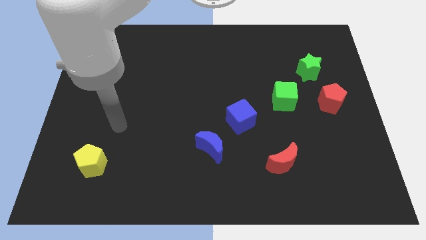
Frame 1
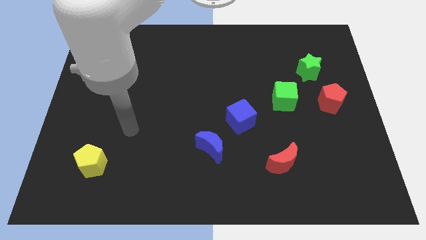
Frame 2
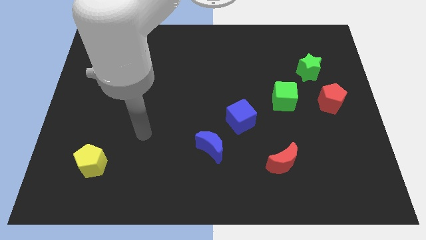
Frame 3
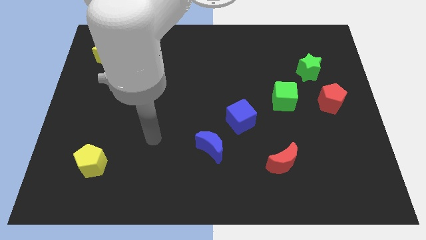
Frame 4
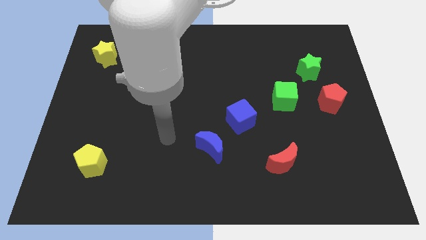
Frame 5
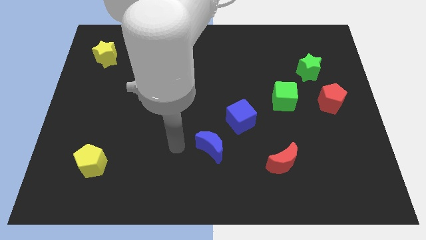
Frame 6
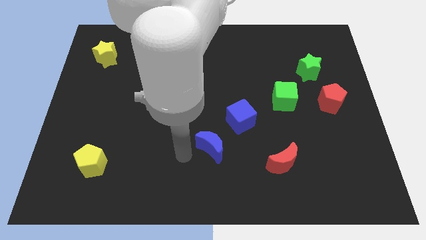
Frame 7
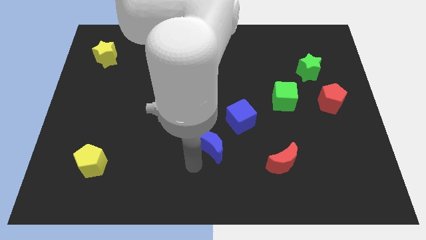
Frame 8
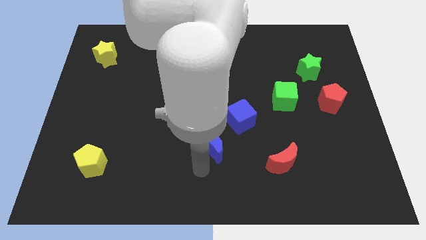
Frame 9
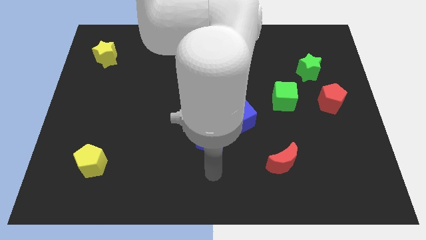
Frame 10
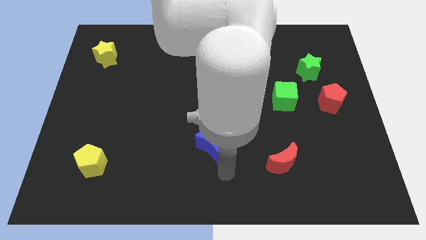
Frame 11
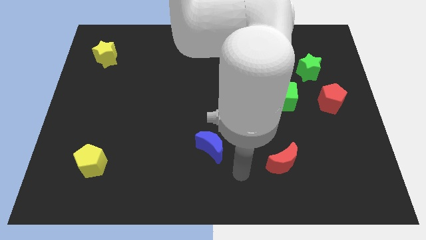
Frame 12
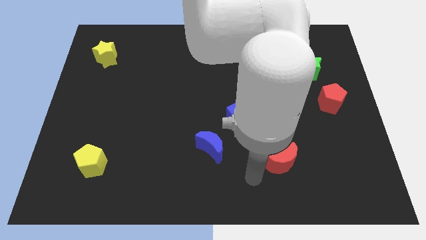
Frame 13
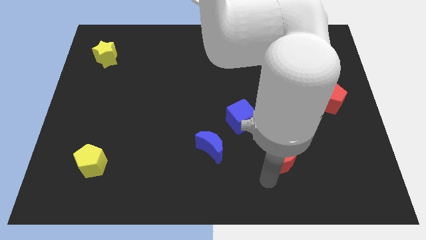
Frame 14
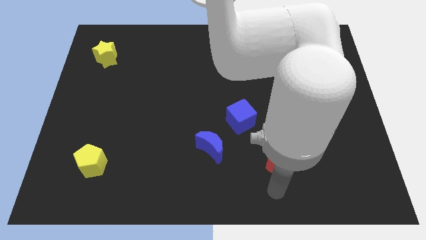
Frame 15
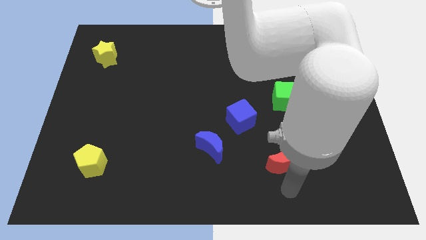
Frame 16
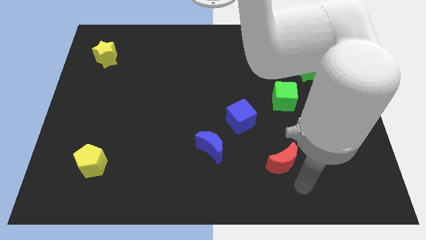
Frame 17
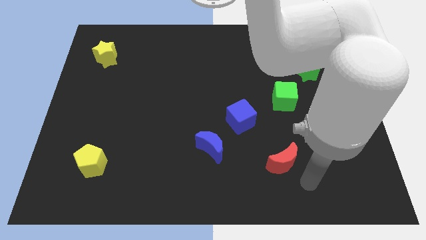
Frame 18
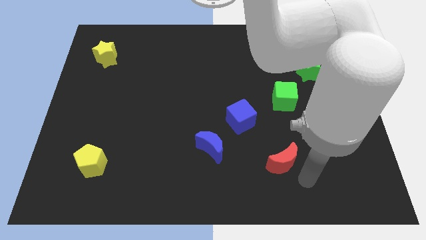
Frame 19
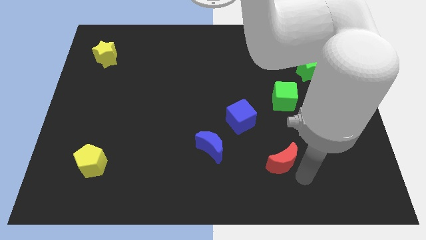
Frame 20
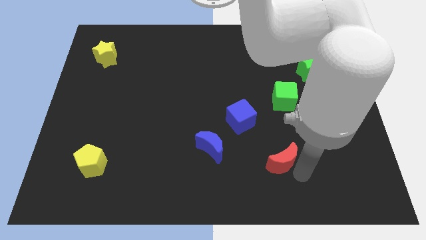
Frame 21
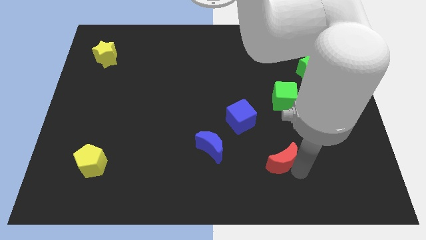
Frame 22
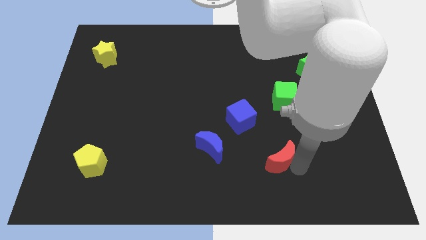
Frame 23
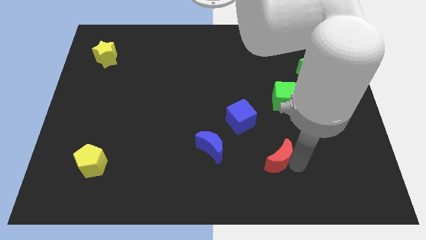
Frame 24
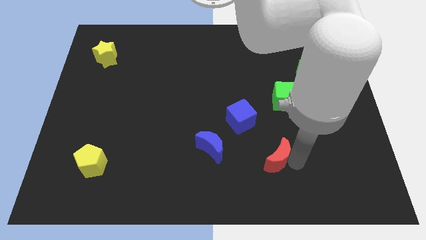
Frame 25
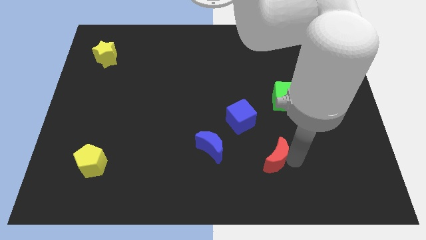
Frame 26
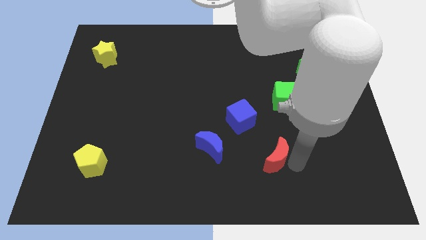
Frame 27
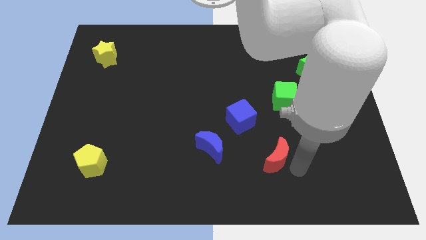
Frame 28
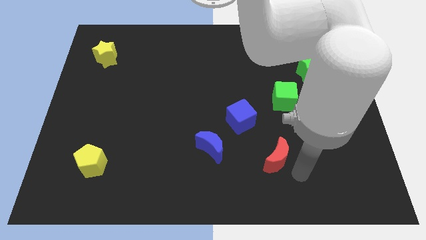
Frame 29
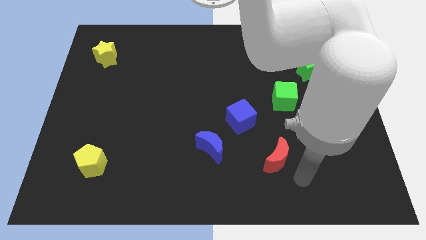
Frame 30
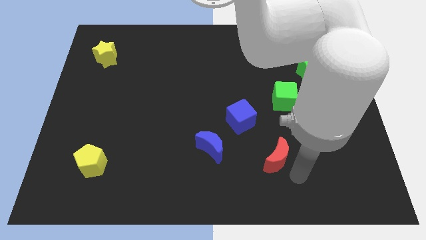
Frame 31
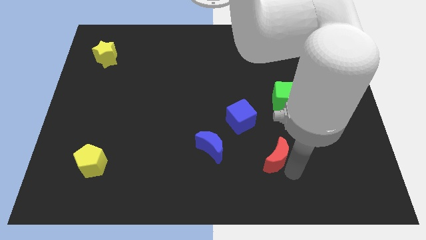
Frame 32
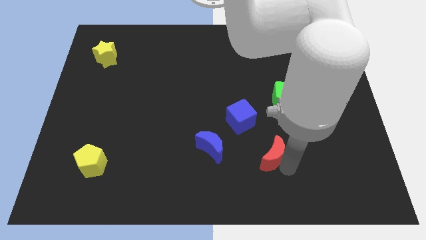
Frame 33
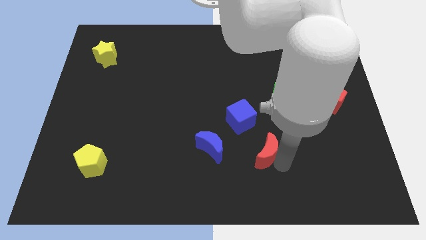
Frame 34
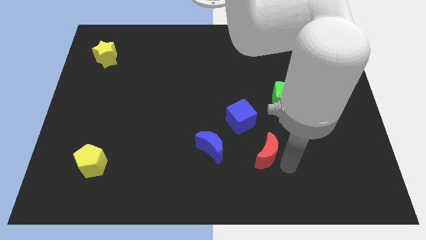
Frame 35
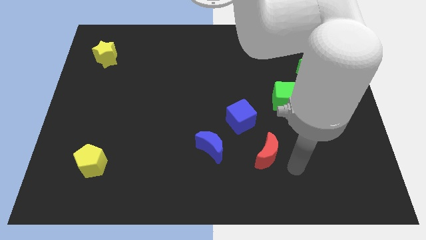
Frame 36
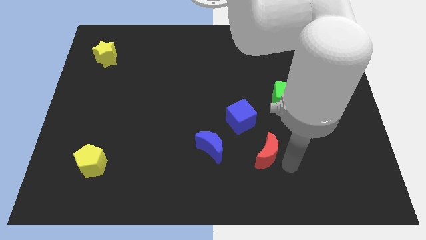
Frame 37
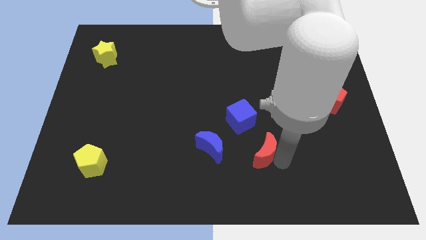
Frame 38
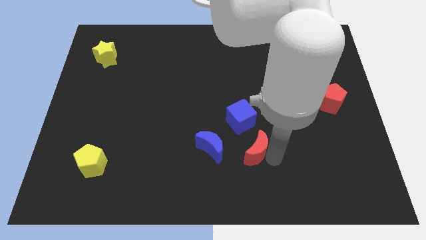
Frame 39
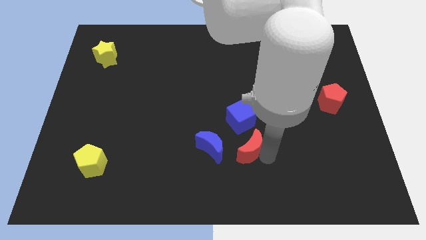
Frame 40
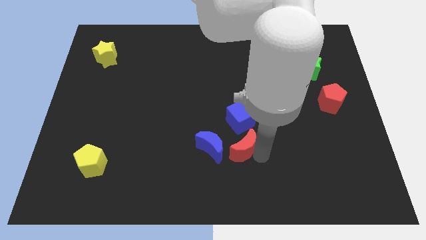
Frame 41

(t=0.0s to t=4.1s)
push the red moon a little bit up and then left

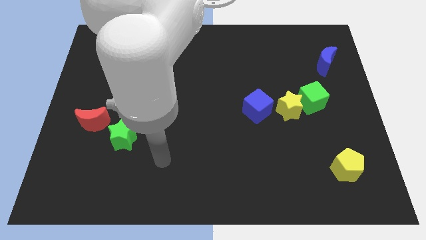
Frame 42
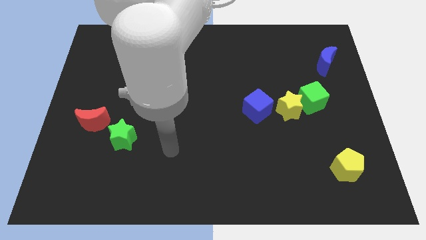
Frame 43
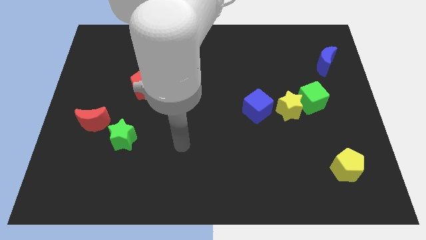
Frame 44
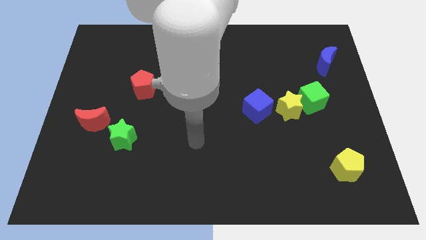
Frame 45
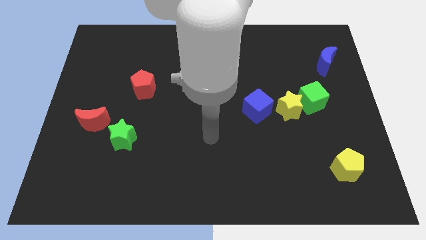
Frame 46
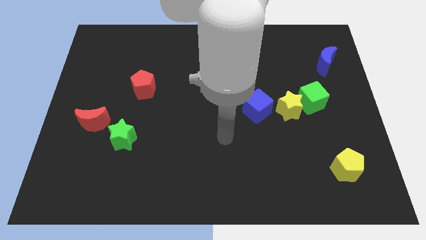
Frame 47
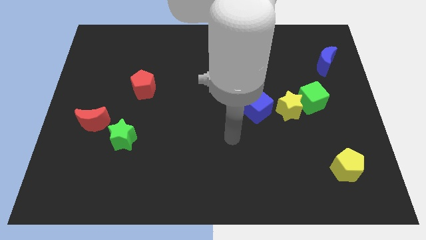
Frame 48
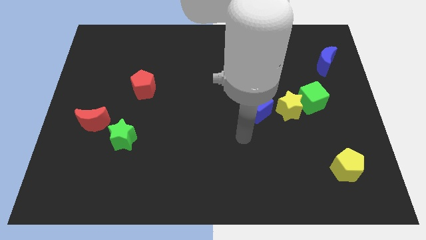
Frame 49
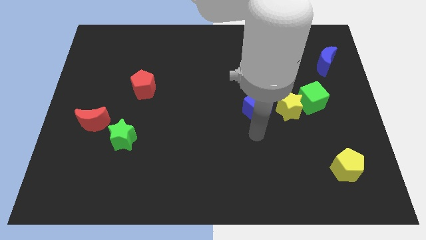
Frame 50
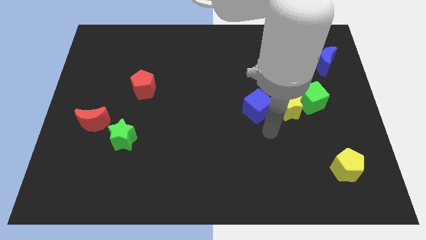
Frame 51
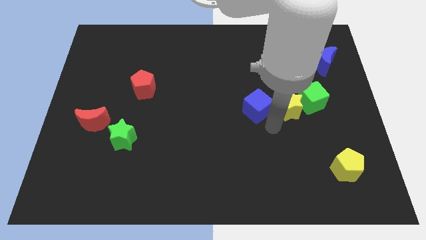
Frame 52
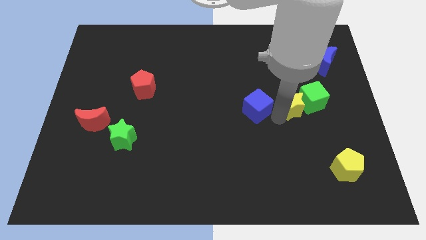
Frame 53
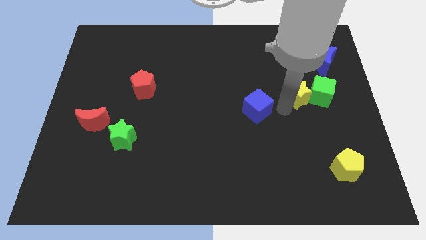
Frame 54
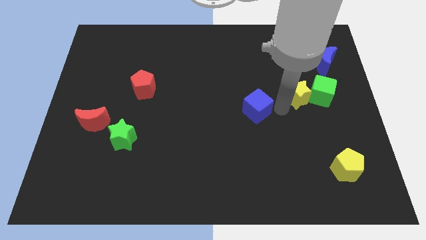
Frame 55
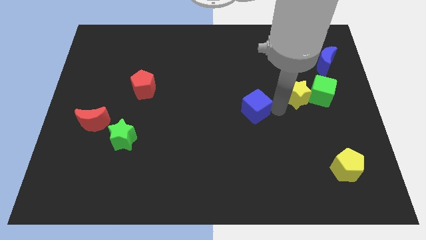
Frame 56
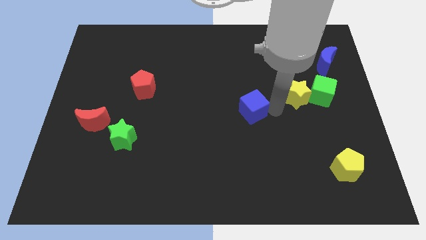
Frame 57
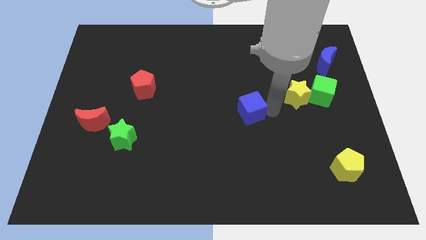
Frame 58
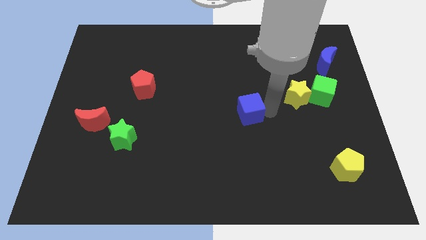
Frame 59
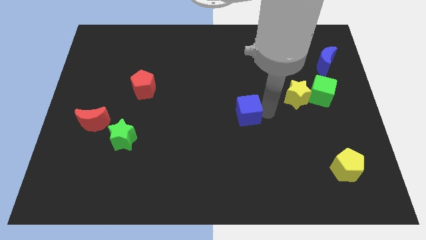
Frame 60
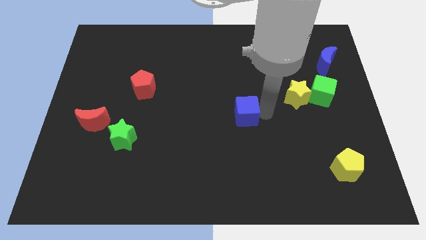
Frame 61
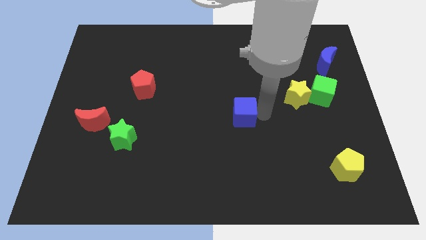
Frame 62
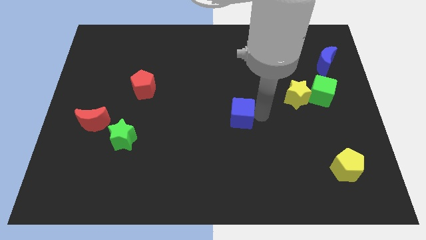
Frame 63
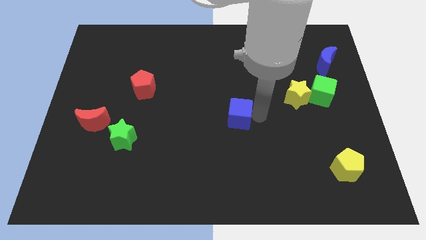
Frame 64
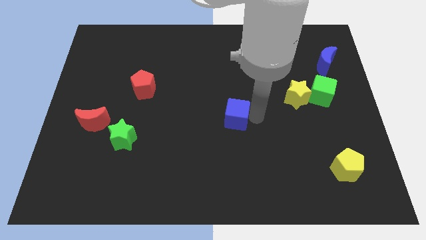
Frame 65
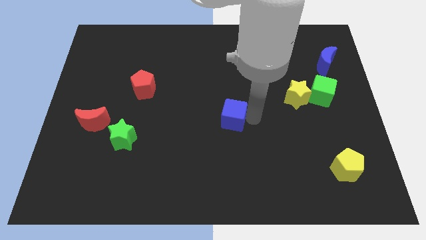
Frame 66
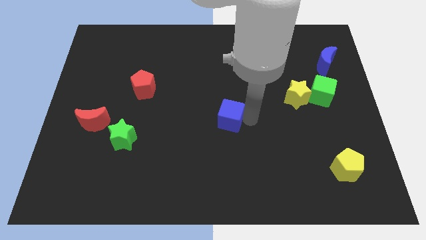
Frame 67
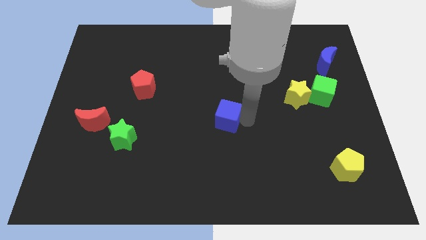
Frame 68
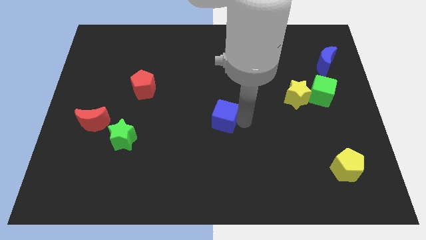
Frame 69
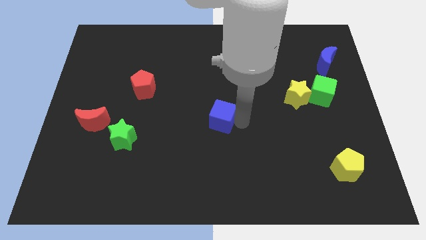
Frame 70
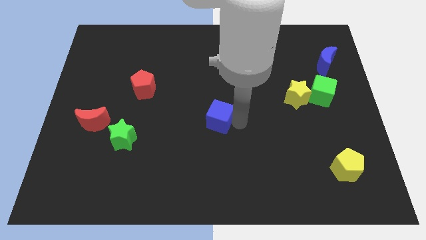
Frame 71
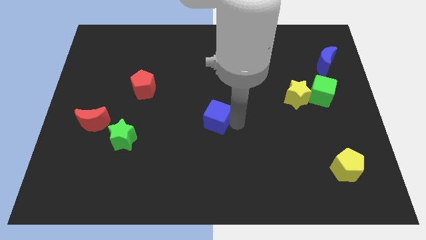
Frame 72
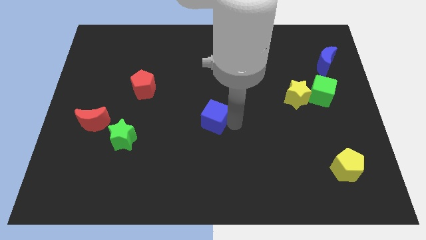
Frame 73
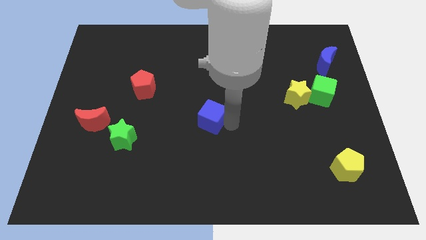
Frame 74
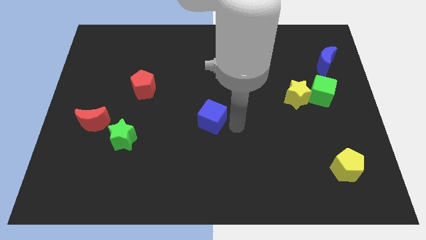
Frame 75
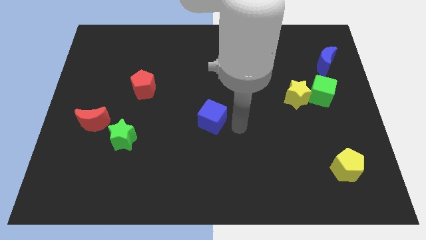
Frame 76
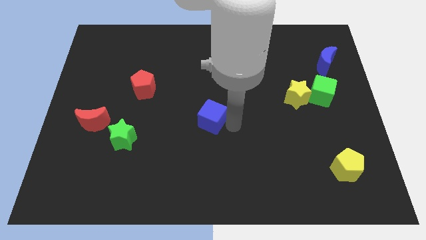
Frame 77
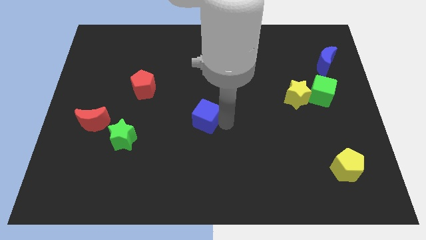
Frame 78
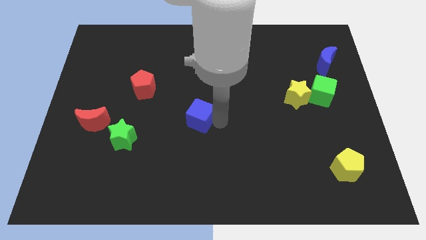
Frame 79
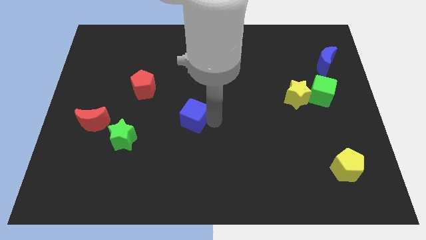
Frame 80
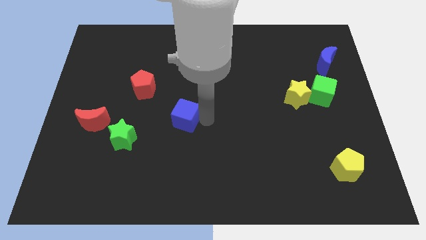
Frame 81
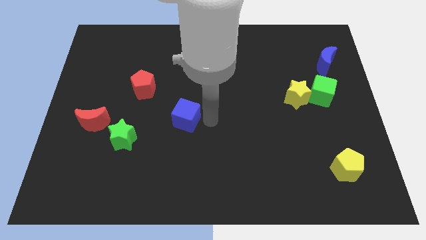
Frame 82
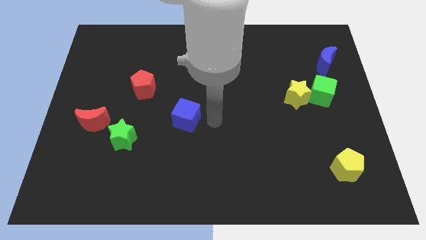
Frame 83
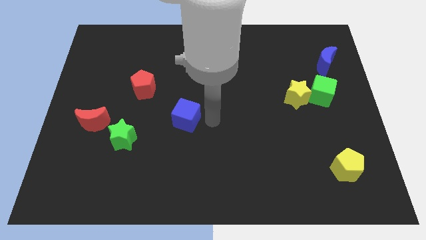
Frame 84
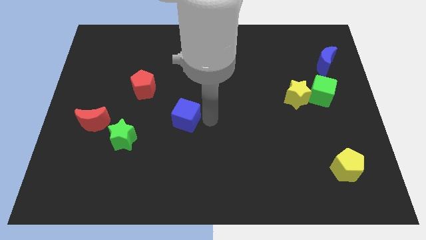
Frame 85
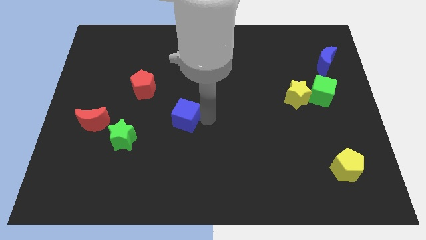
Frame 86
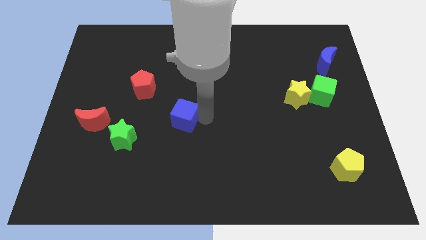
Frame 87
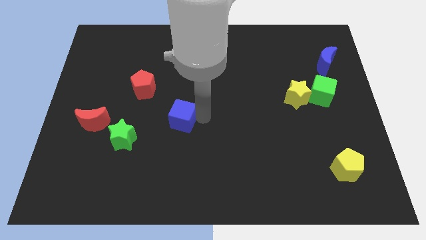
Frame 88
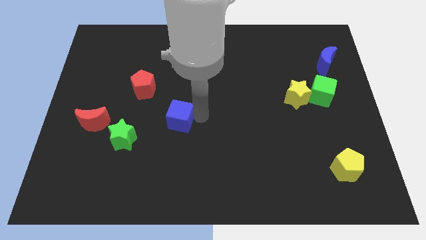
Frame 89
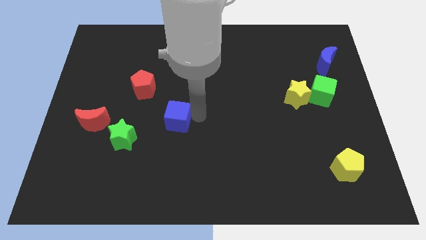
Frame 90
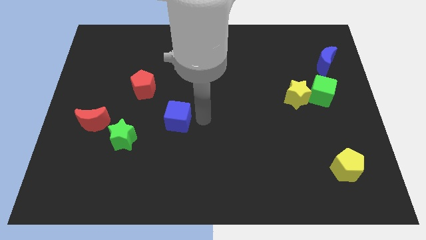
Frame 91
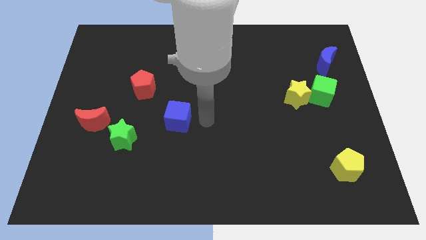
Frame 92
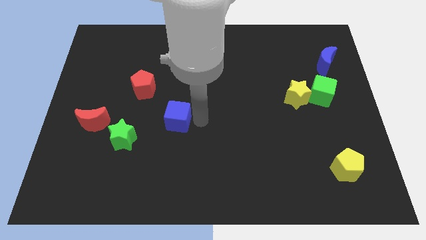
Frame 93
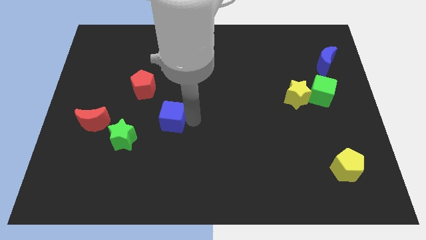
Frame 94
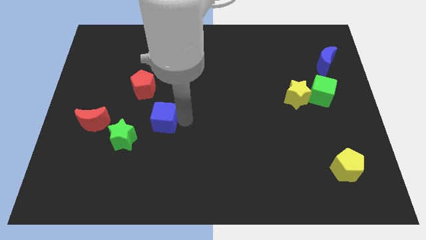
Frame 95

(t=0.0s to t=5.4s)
push the blue cube left
